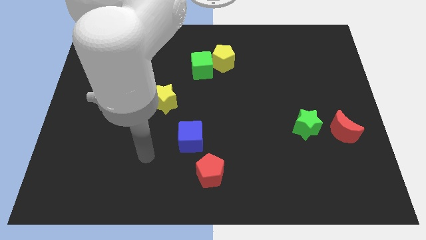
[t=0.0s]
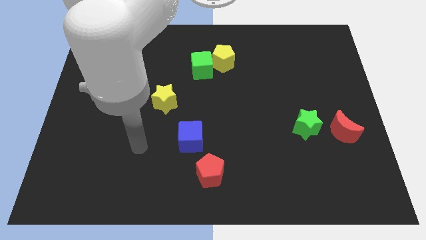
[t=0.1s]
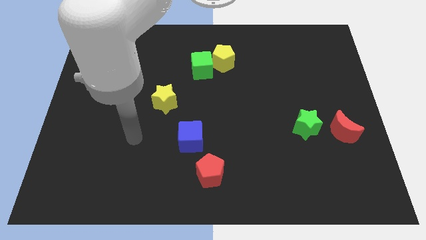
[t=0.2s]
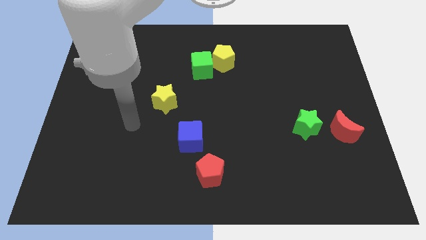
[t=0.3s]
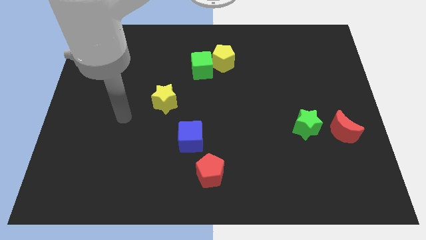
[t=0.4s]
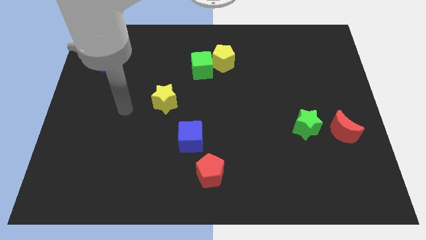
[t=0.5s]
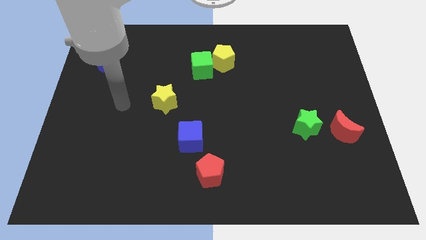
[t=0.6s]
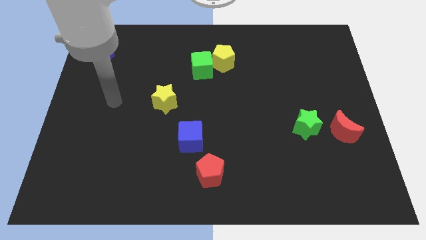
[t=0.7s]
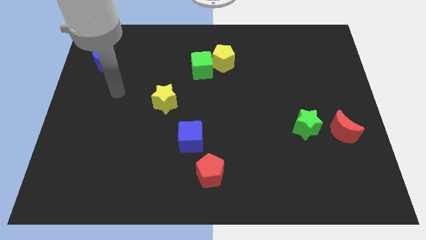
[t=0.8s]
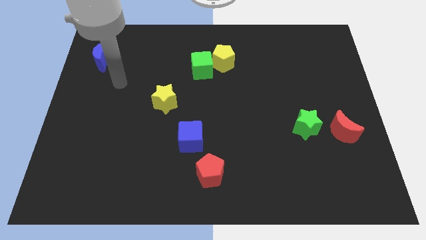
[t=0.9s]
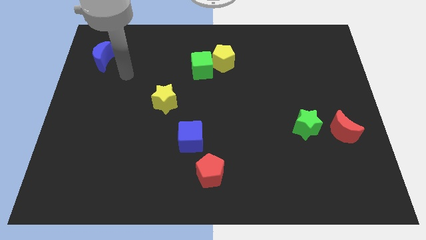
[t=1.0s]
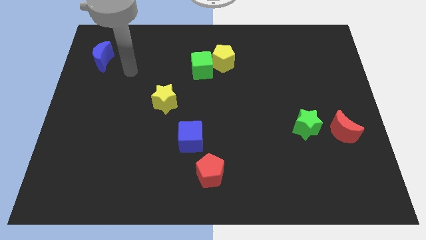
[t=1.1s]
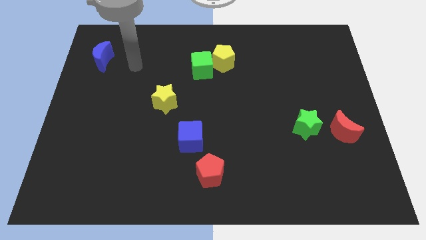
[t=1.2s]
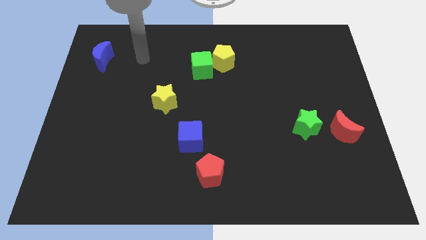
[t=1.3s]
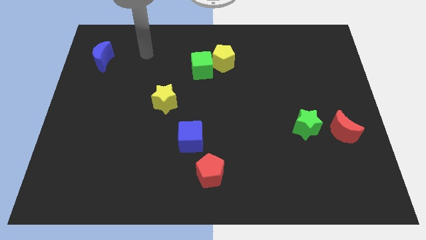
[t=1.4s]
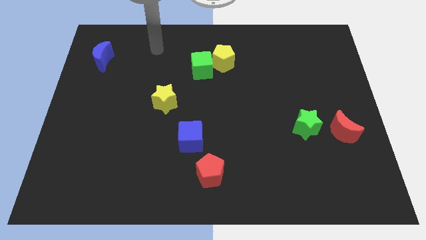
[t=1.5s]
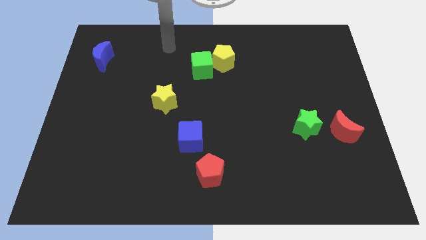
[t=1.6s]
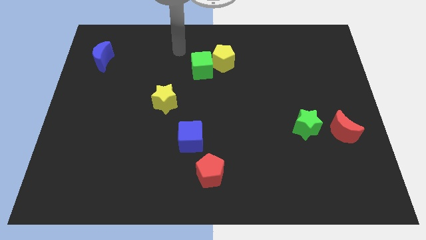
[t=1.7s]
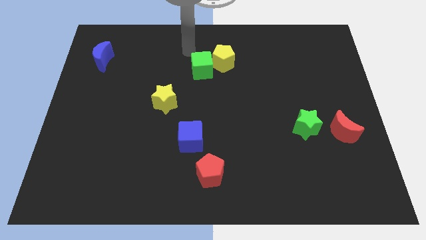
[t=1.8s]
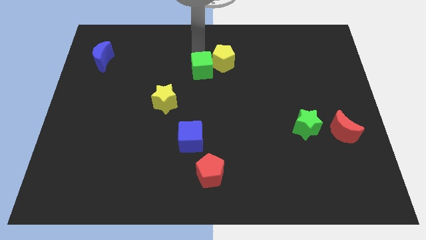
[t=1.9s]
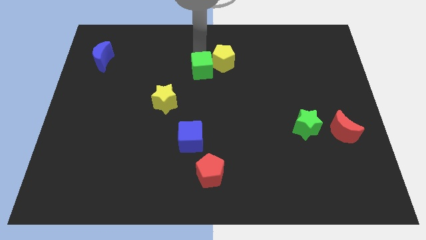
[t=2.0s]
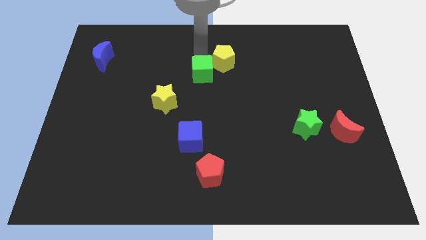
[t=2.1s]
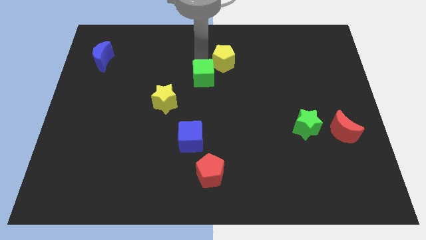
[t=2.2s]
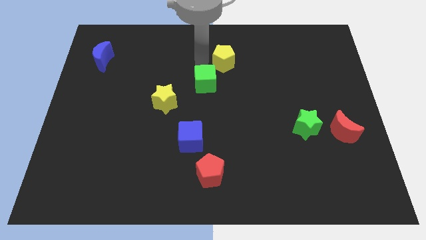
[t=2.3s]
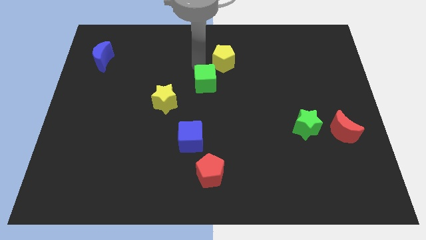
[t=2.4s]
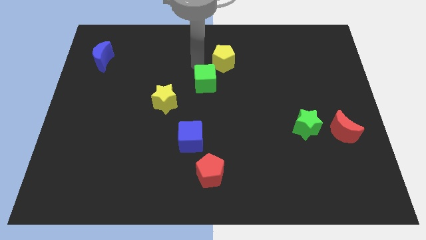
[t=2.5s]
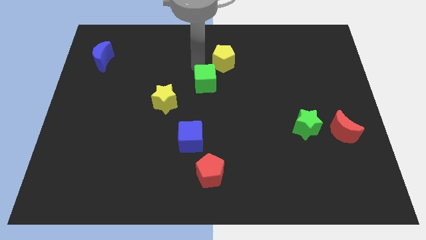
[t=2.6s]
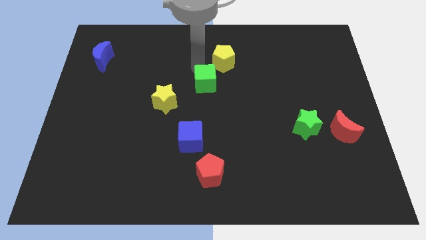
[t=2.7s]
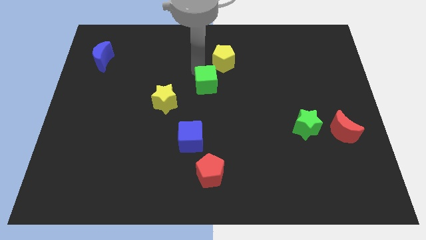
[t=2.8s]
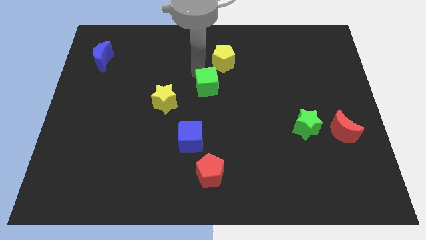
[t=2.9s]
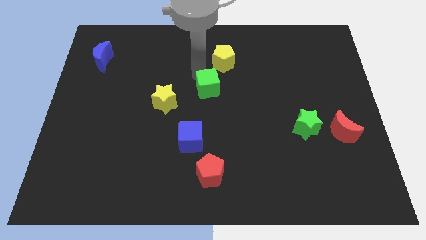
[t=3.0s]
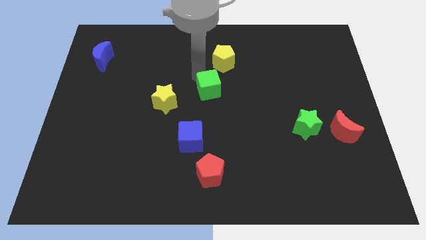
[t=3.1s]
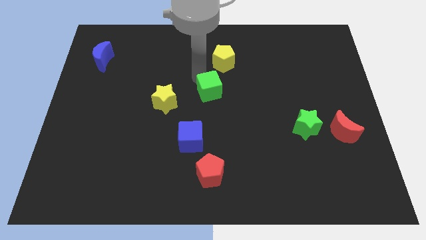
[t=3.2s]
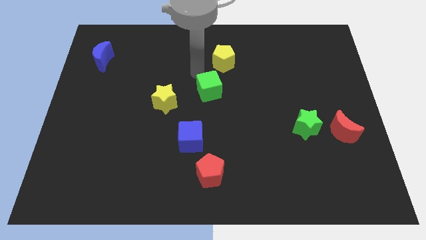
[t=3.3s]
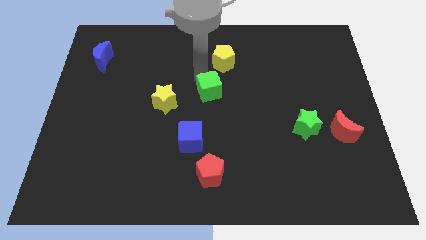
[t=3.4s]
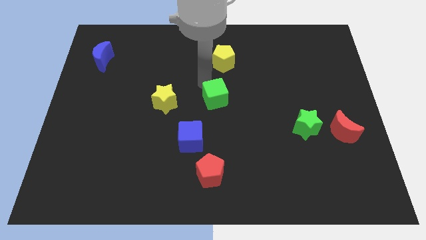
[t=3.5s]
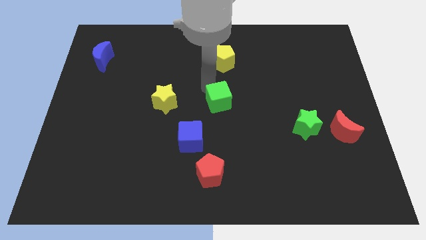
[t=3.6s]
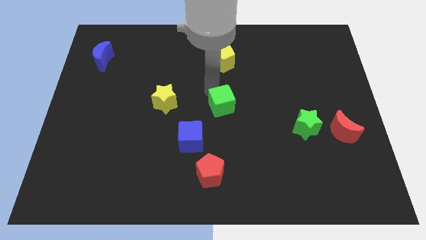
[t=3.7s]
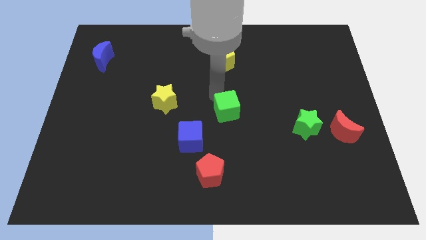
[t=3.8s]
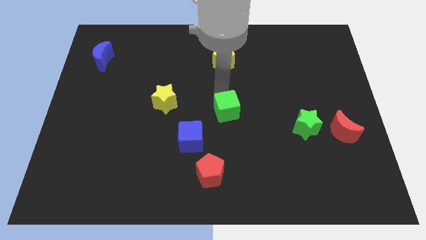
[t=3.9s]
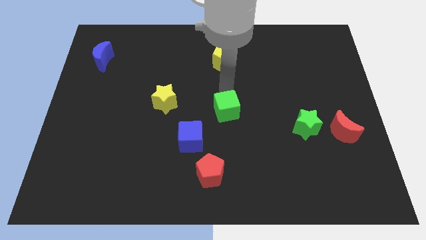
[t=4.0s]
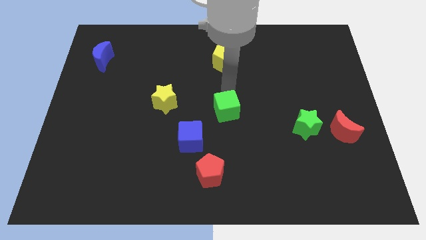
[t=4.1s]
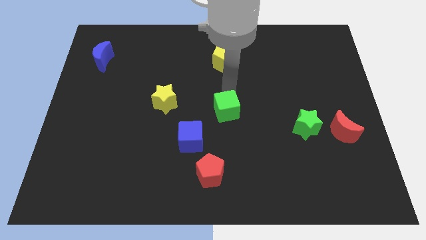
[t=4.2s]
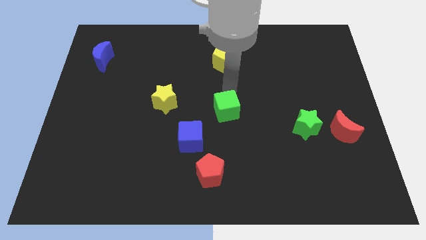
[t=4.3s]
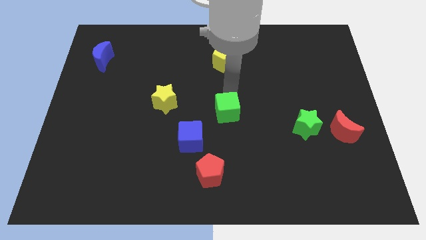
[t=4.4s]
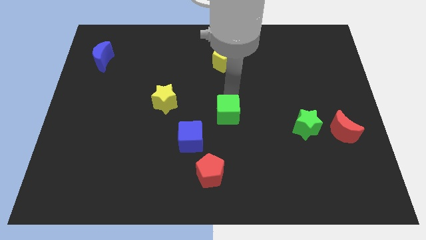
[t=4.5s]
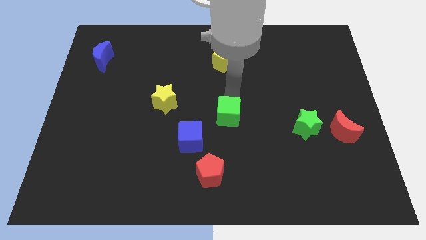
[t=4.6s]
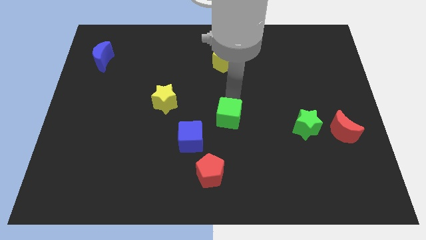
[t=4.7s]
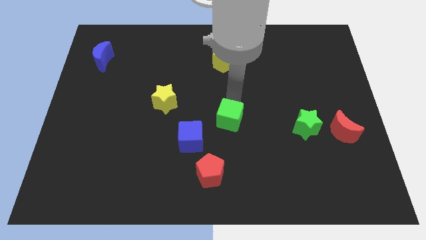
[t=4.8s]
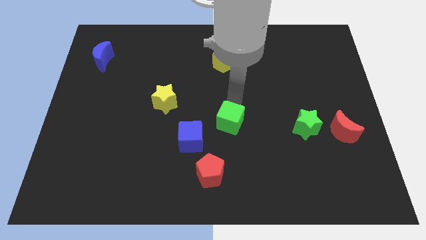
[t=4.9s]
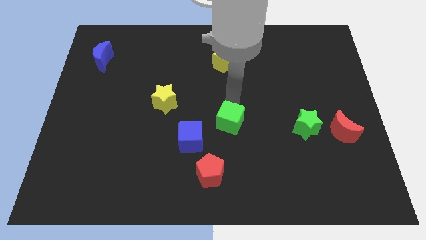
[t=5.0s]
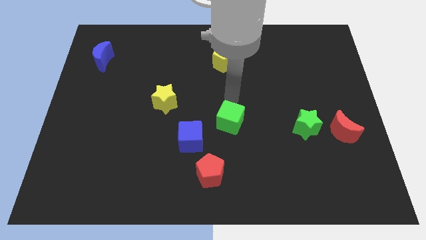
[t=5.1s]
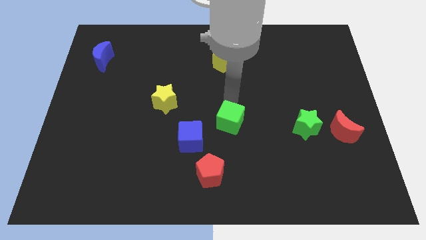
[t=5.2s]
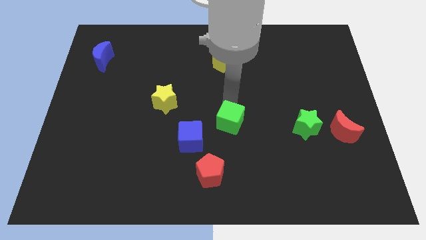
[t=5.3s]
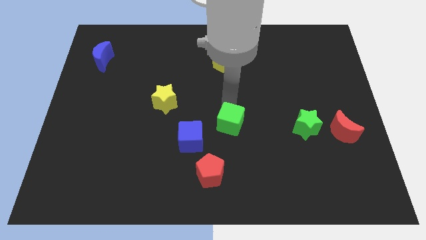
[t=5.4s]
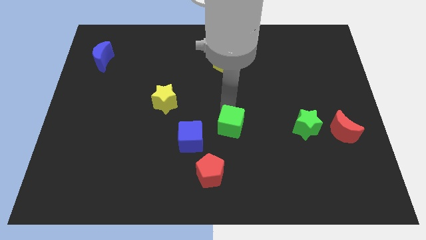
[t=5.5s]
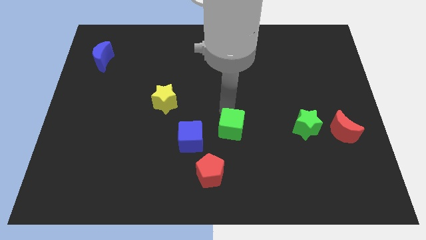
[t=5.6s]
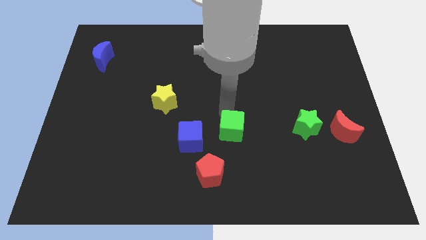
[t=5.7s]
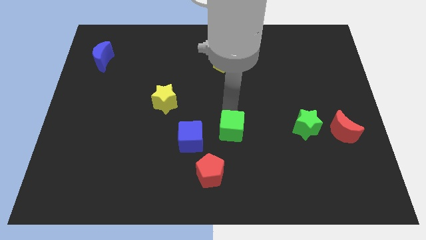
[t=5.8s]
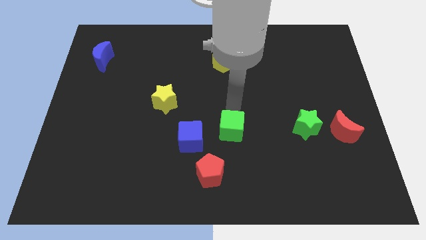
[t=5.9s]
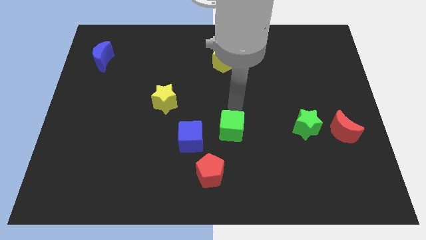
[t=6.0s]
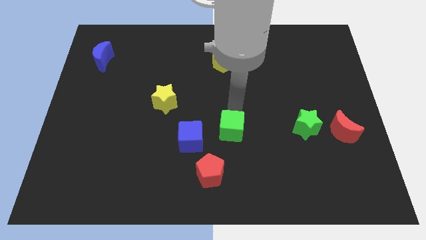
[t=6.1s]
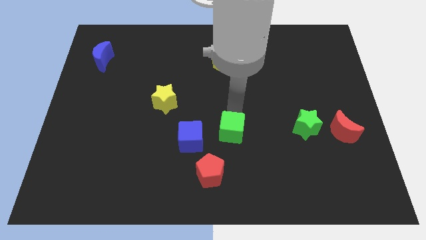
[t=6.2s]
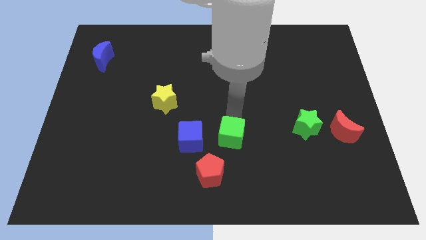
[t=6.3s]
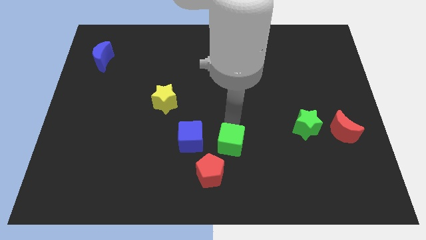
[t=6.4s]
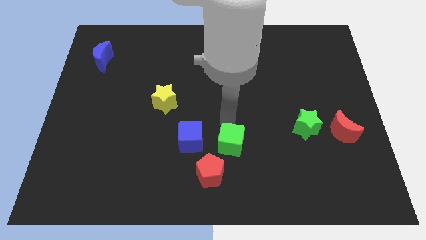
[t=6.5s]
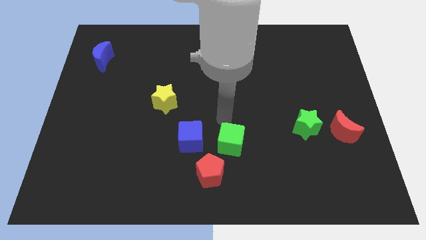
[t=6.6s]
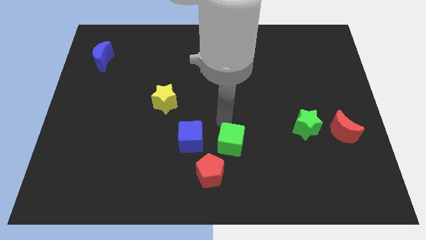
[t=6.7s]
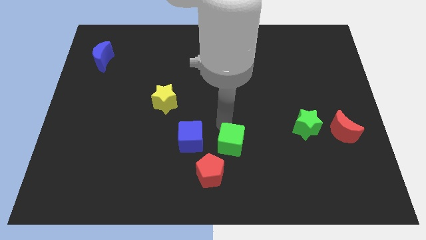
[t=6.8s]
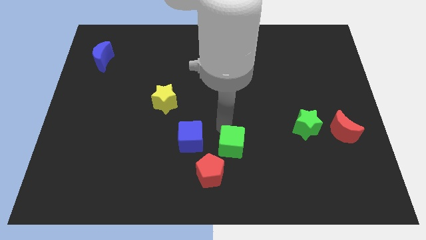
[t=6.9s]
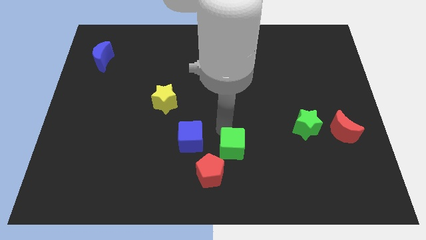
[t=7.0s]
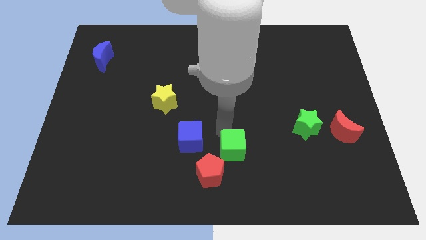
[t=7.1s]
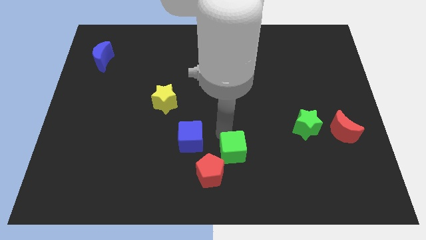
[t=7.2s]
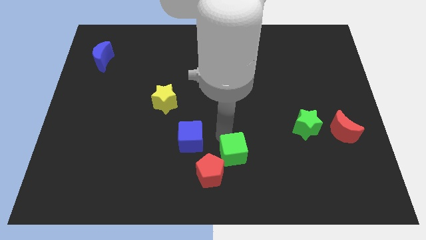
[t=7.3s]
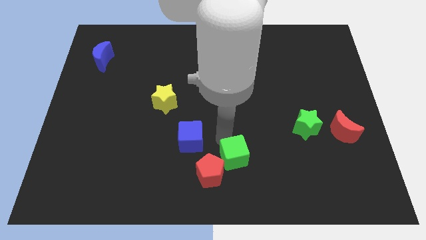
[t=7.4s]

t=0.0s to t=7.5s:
move the green cube to the bottom side
